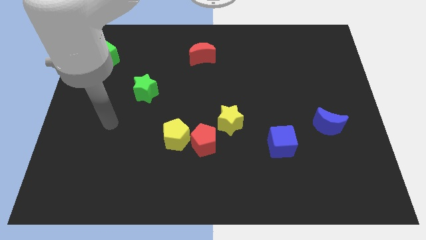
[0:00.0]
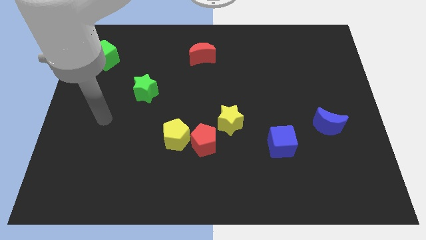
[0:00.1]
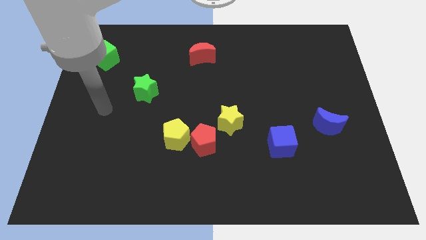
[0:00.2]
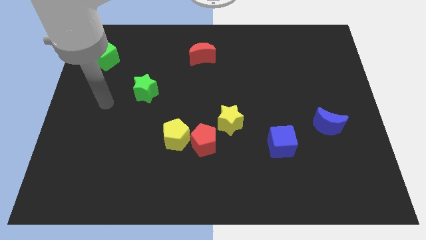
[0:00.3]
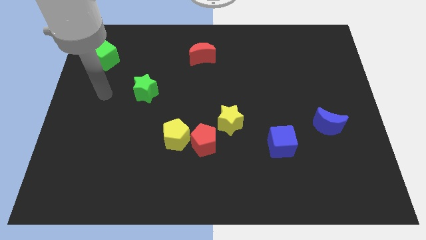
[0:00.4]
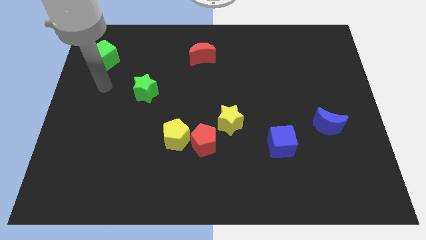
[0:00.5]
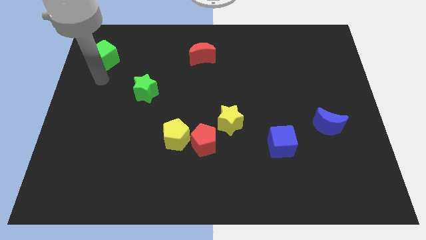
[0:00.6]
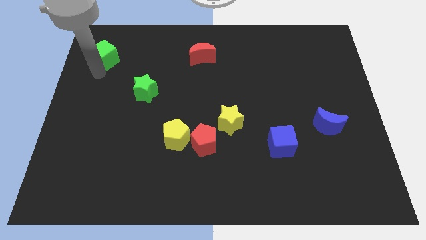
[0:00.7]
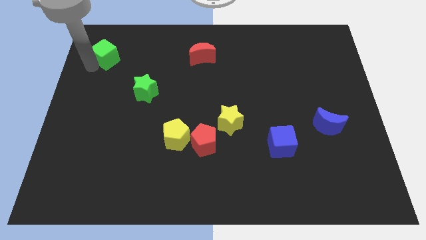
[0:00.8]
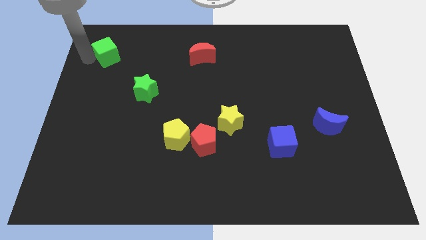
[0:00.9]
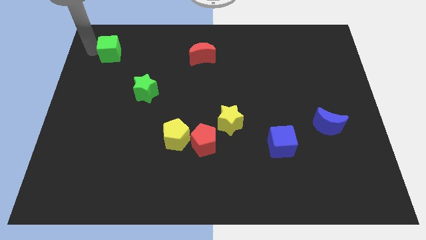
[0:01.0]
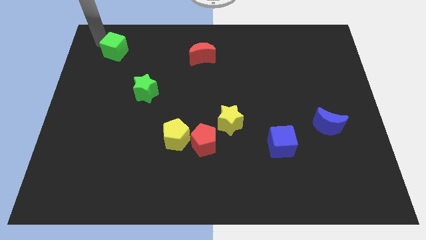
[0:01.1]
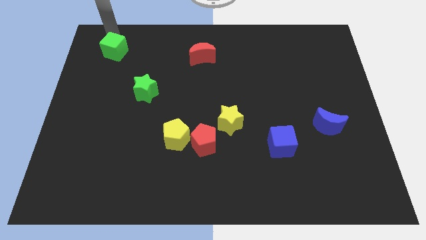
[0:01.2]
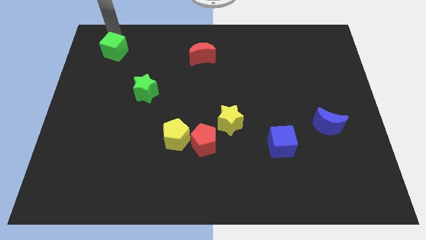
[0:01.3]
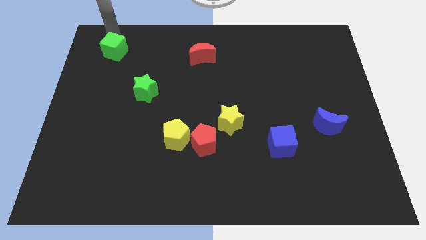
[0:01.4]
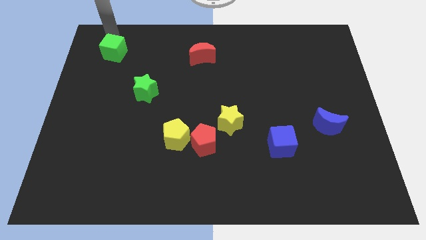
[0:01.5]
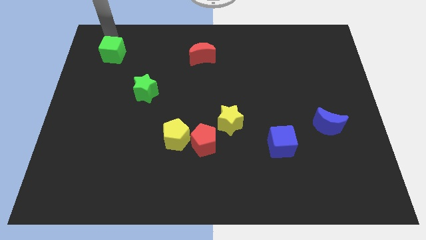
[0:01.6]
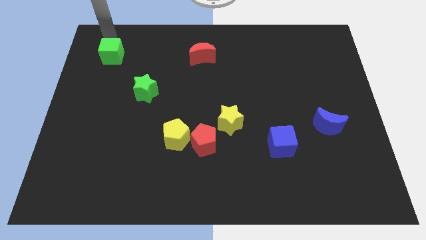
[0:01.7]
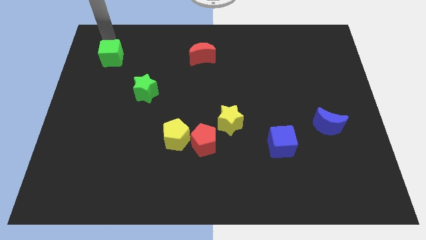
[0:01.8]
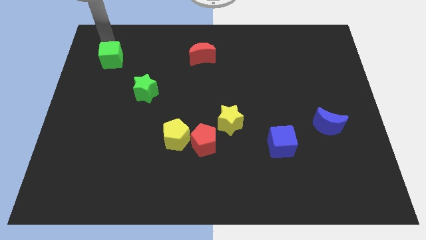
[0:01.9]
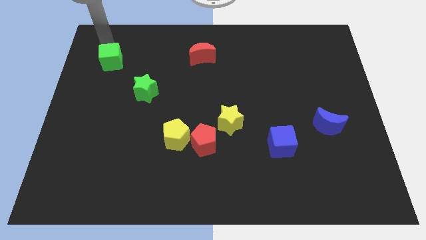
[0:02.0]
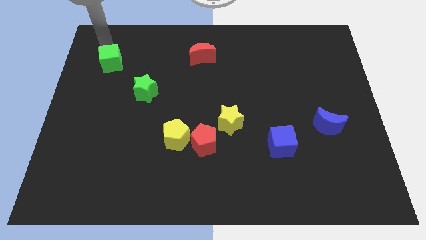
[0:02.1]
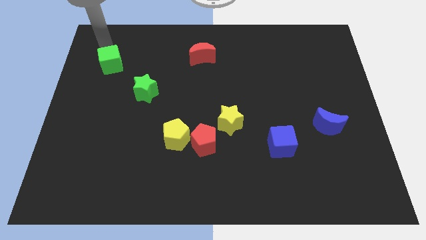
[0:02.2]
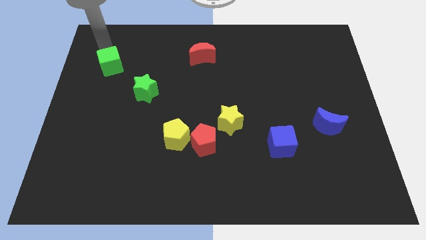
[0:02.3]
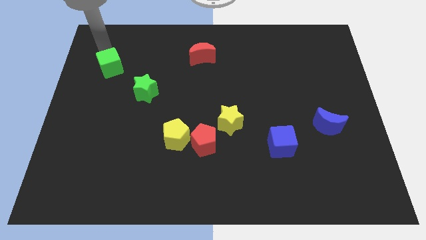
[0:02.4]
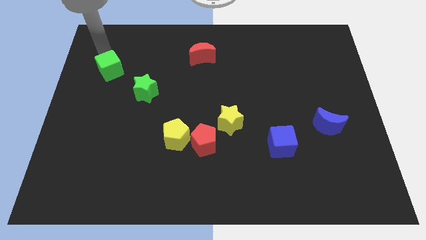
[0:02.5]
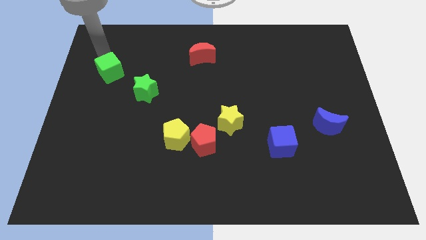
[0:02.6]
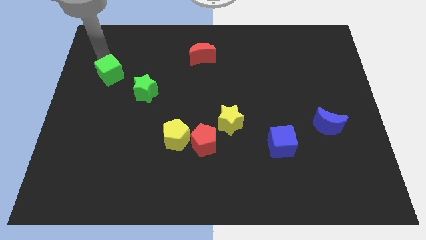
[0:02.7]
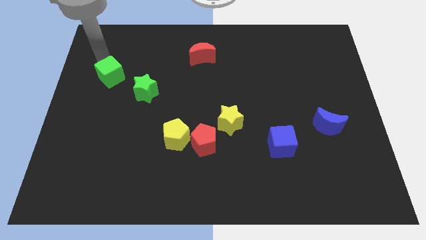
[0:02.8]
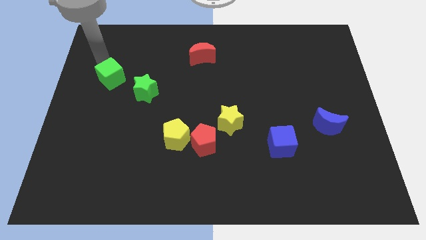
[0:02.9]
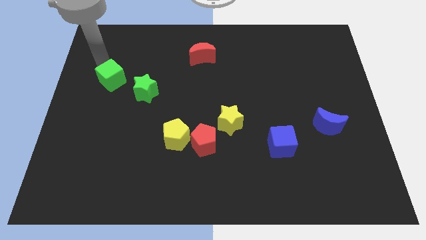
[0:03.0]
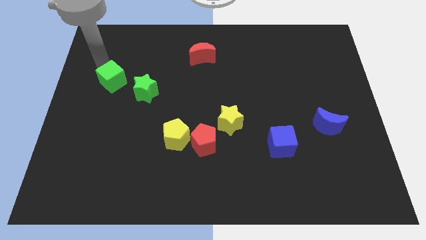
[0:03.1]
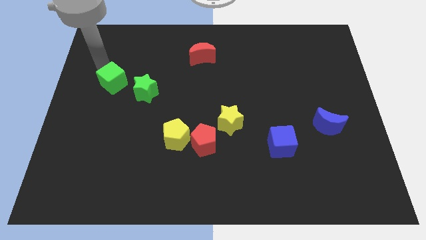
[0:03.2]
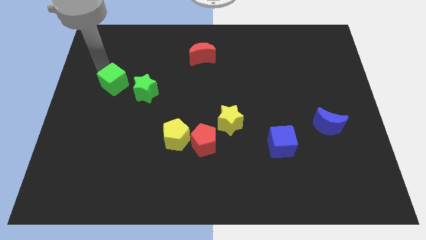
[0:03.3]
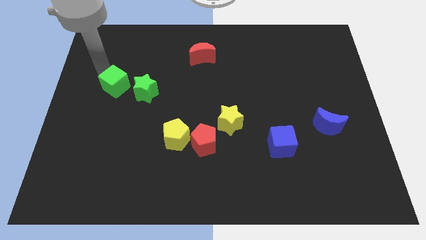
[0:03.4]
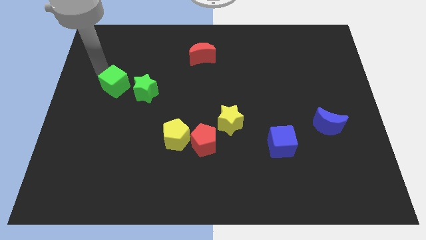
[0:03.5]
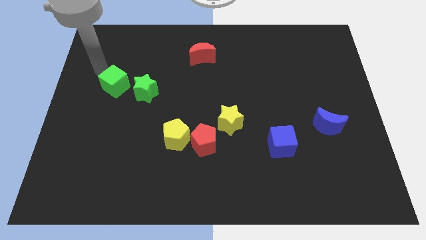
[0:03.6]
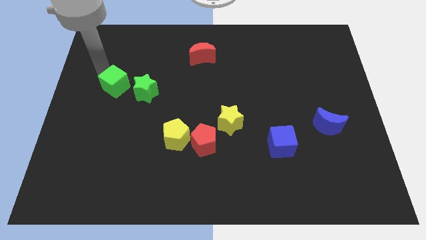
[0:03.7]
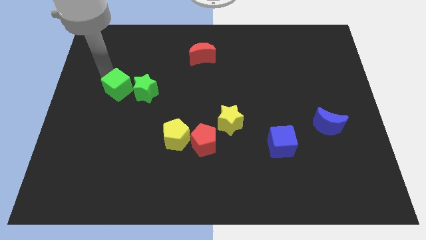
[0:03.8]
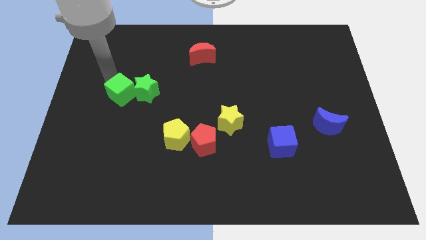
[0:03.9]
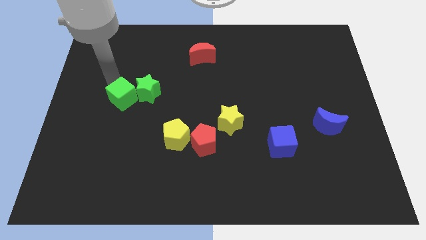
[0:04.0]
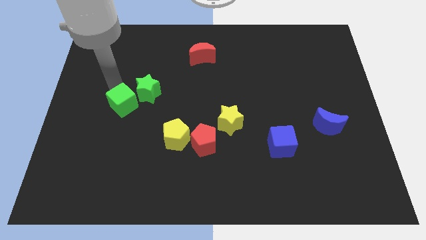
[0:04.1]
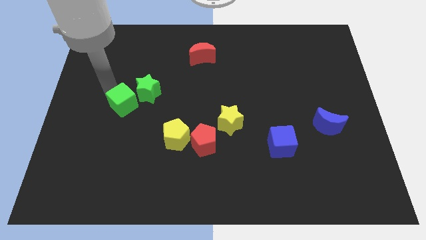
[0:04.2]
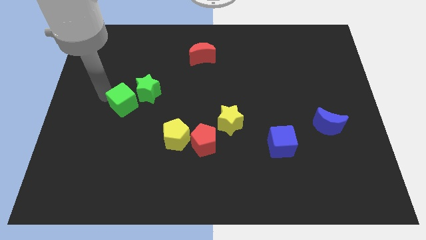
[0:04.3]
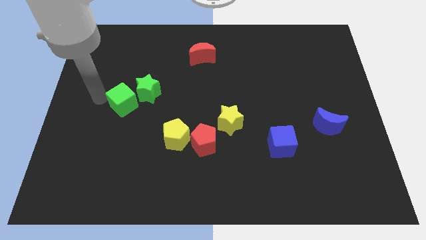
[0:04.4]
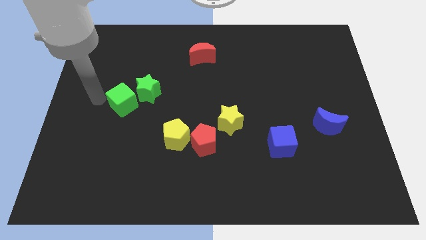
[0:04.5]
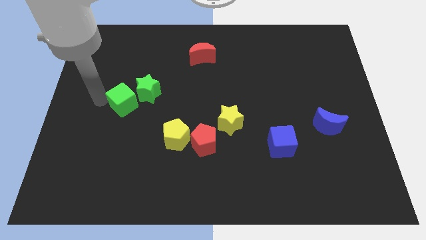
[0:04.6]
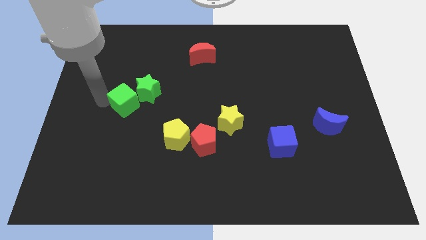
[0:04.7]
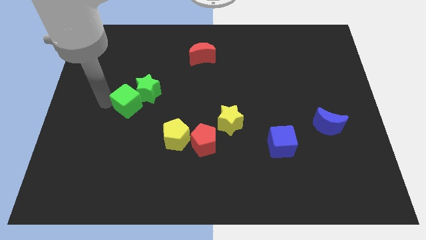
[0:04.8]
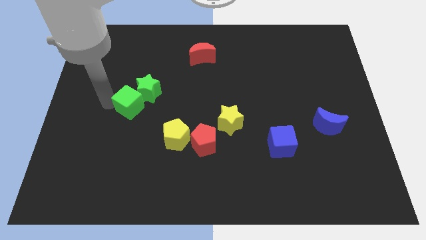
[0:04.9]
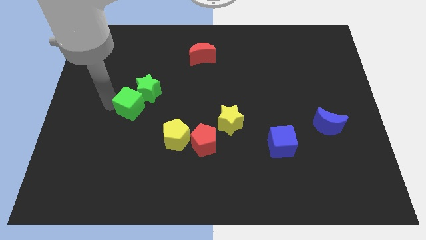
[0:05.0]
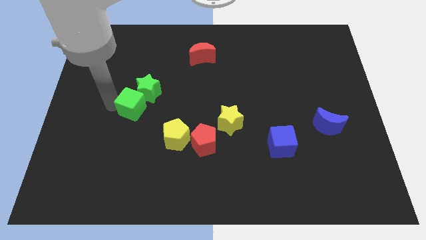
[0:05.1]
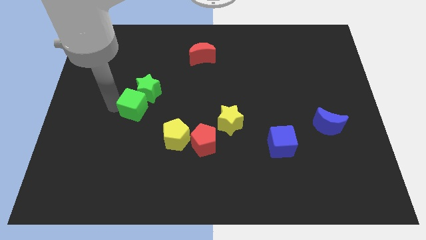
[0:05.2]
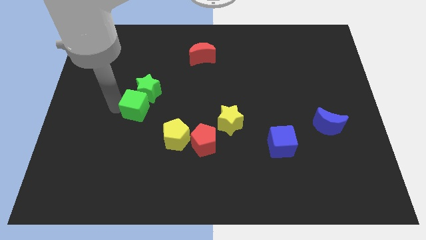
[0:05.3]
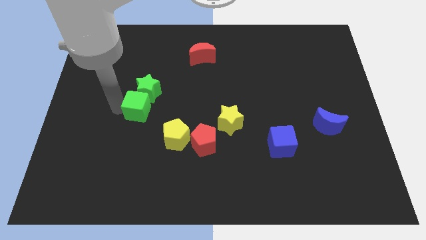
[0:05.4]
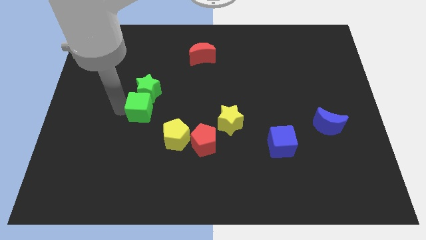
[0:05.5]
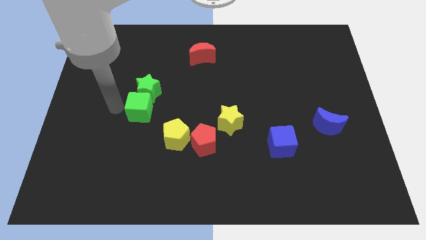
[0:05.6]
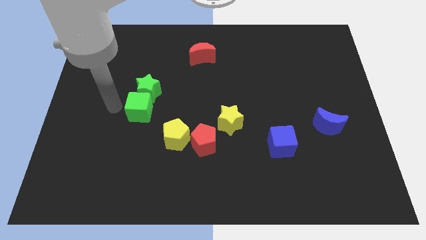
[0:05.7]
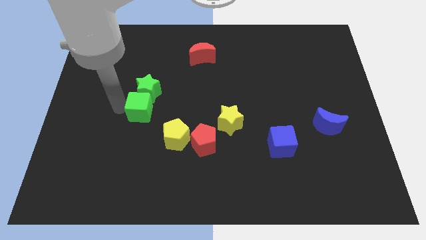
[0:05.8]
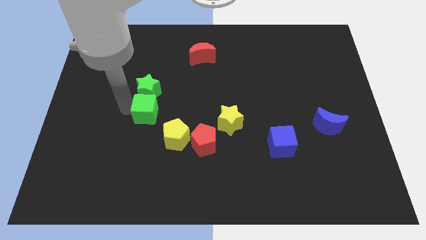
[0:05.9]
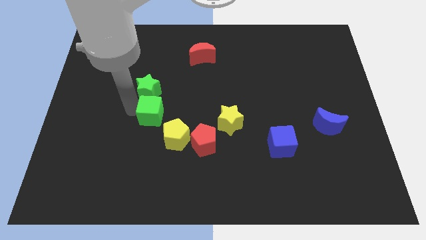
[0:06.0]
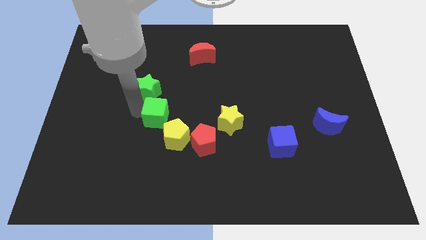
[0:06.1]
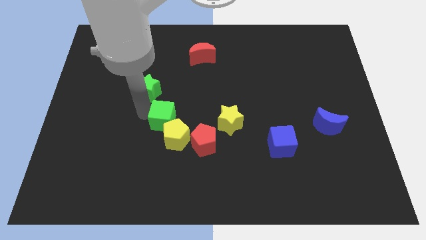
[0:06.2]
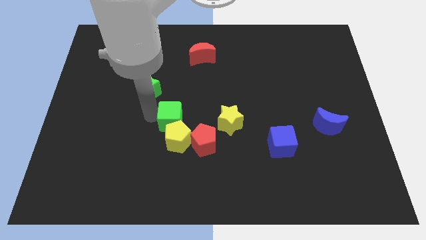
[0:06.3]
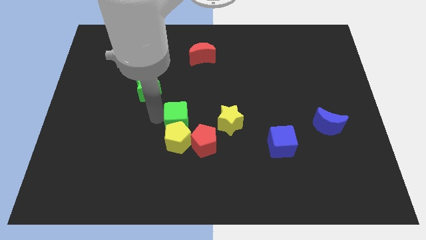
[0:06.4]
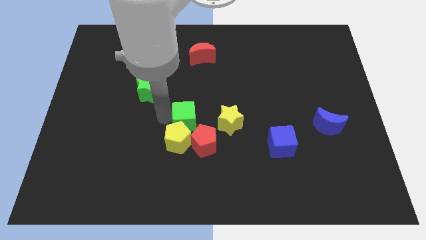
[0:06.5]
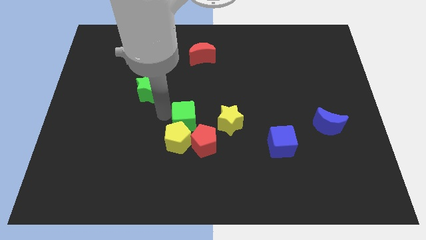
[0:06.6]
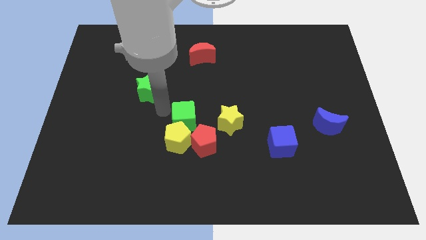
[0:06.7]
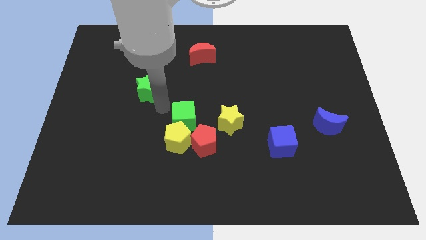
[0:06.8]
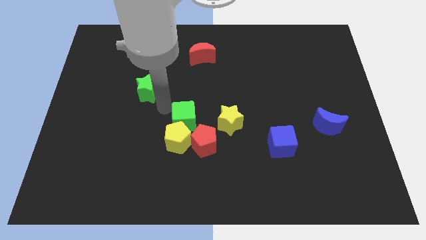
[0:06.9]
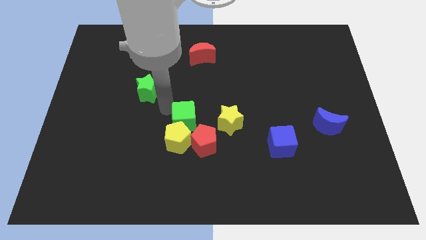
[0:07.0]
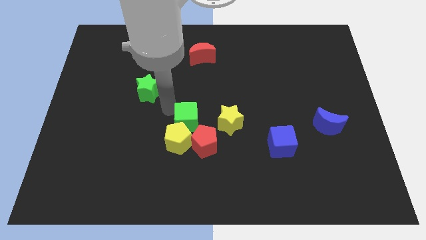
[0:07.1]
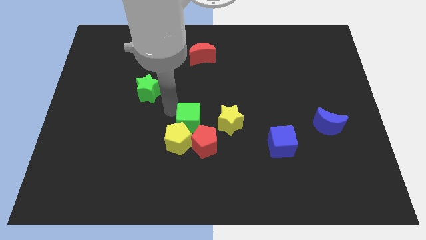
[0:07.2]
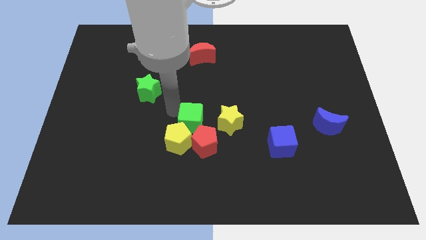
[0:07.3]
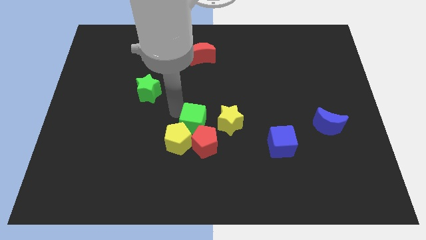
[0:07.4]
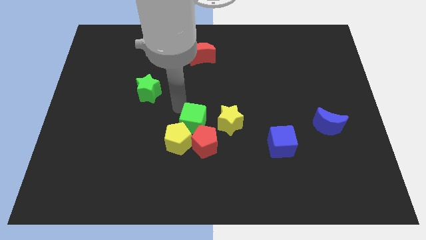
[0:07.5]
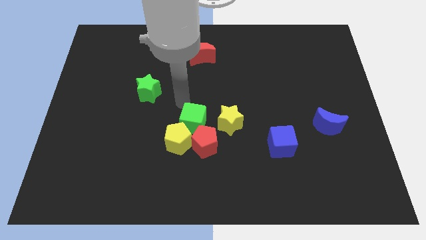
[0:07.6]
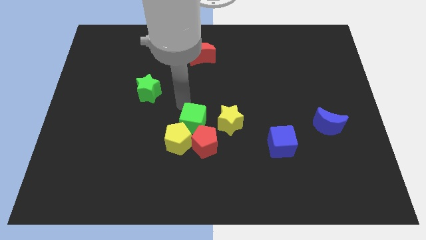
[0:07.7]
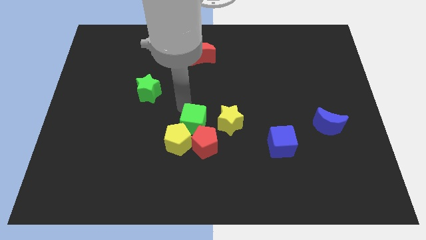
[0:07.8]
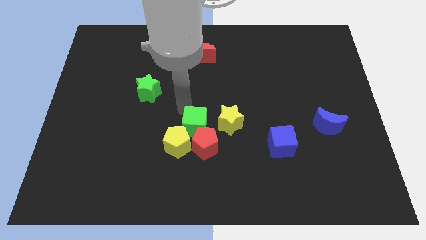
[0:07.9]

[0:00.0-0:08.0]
put the green cube to the red pentagon
